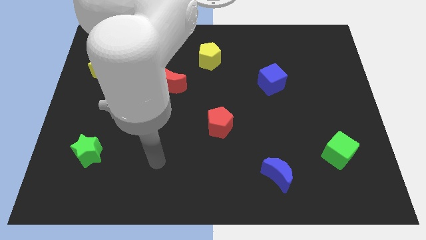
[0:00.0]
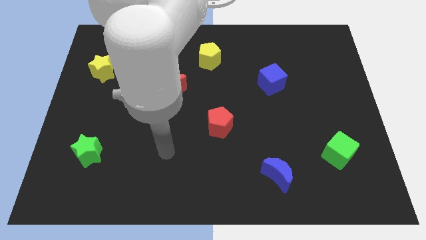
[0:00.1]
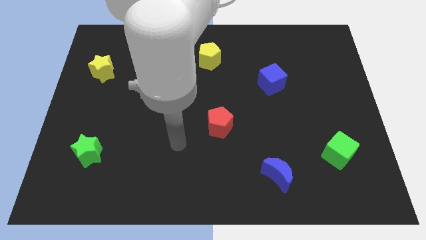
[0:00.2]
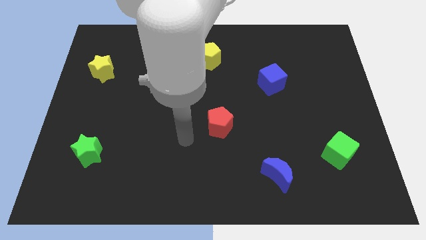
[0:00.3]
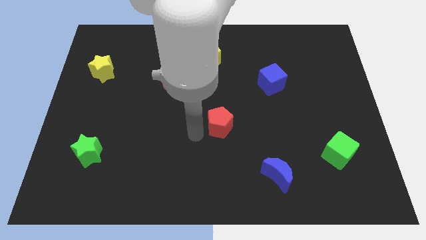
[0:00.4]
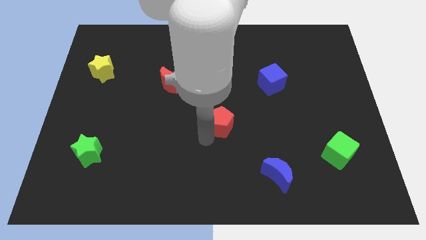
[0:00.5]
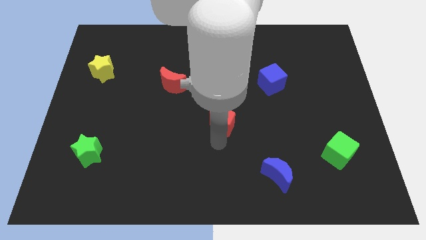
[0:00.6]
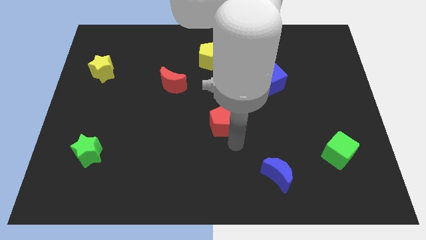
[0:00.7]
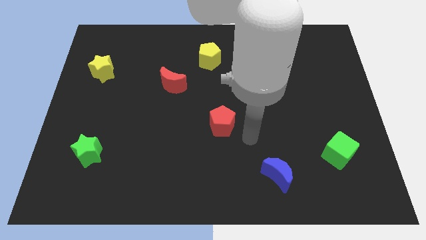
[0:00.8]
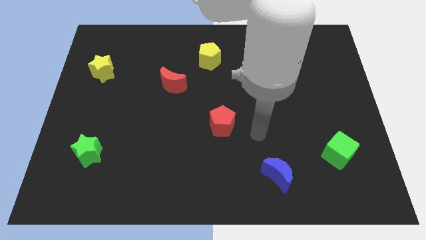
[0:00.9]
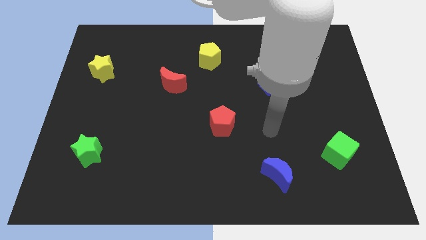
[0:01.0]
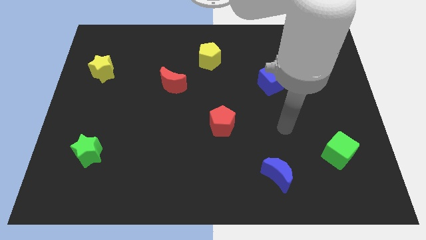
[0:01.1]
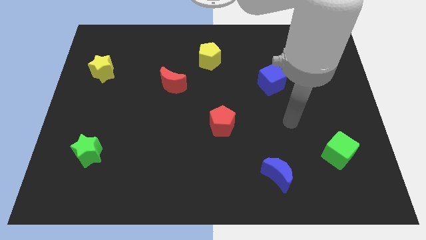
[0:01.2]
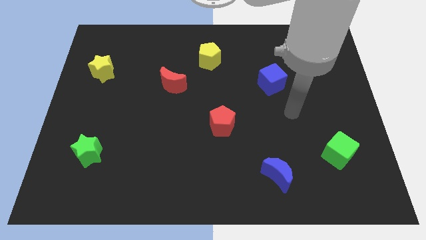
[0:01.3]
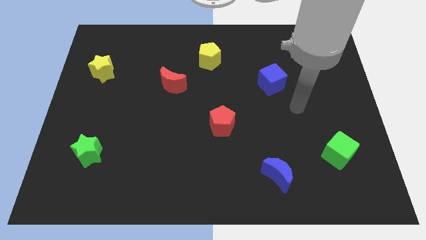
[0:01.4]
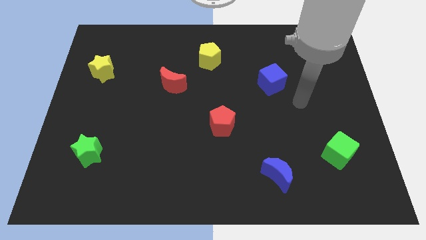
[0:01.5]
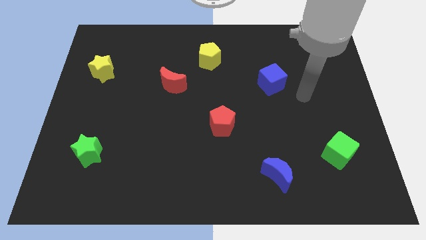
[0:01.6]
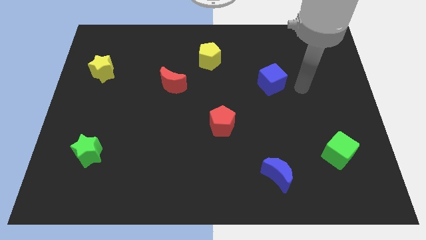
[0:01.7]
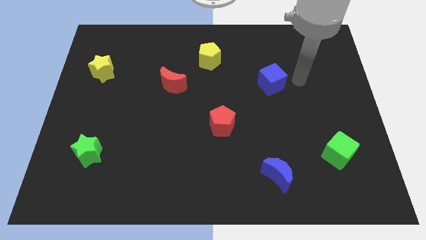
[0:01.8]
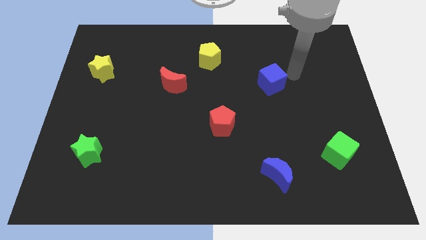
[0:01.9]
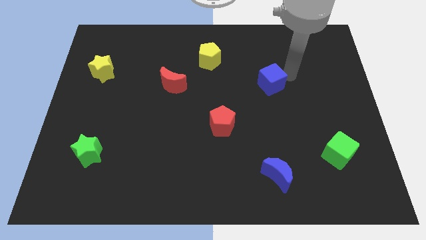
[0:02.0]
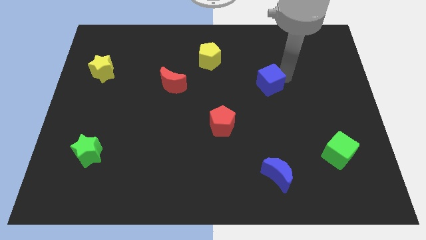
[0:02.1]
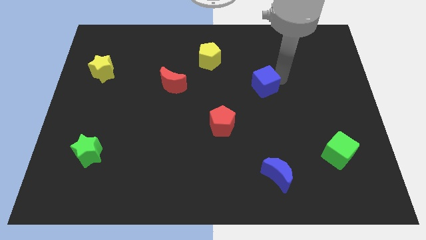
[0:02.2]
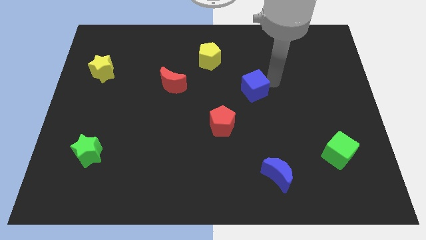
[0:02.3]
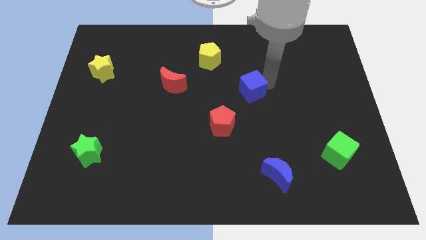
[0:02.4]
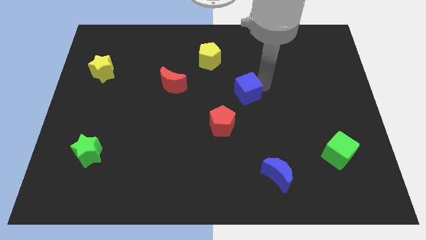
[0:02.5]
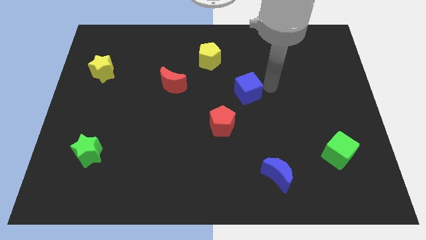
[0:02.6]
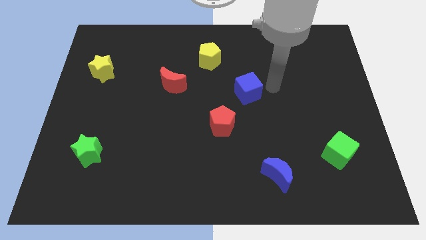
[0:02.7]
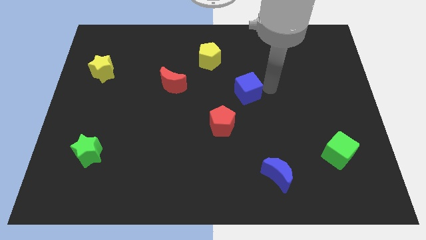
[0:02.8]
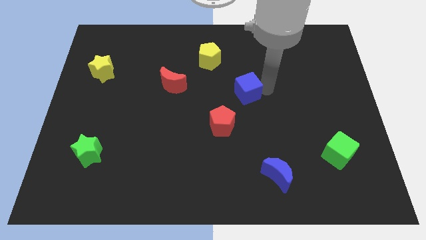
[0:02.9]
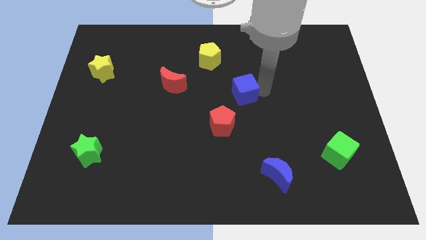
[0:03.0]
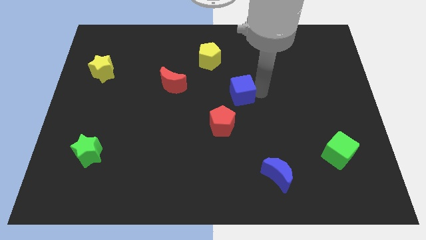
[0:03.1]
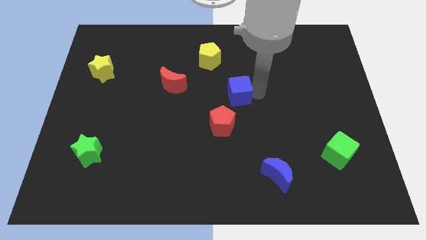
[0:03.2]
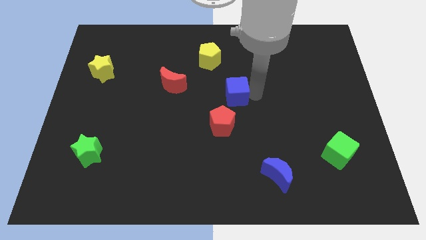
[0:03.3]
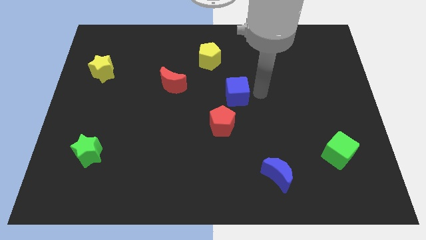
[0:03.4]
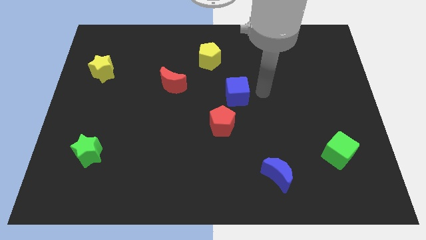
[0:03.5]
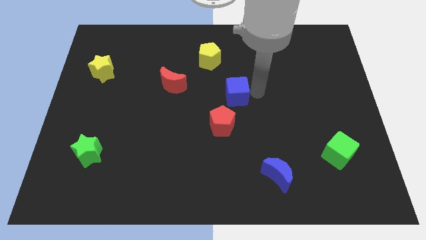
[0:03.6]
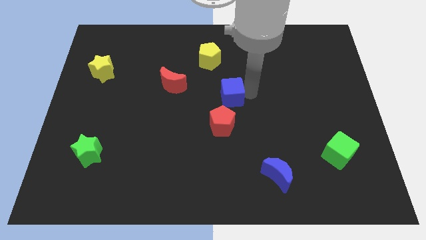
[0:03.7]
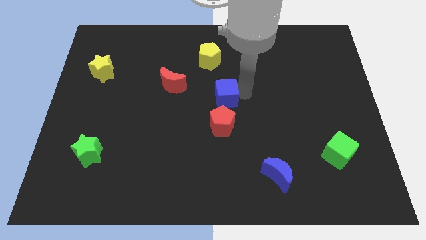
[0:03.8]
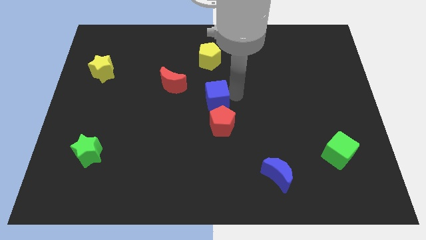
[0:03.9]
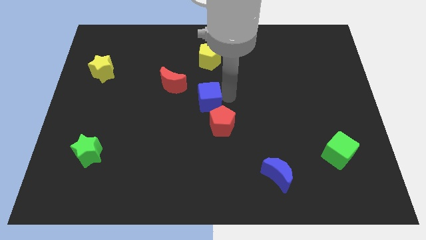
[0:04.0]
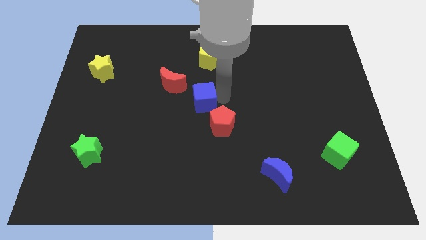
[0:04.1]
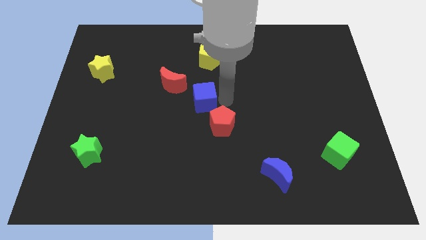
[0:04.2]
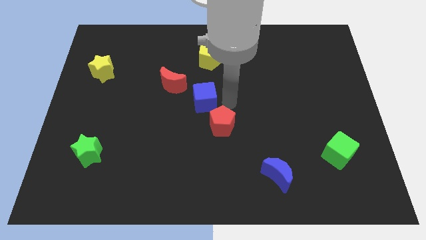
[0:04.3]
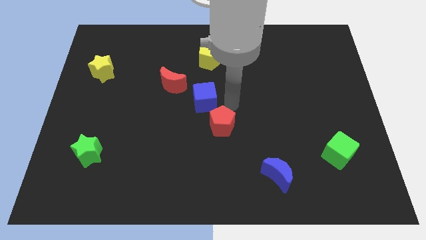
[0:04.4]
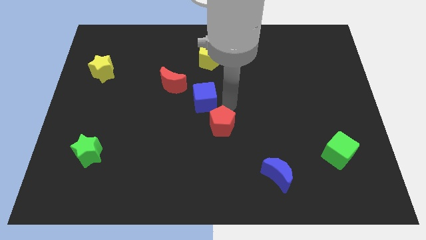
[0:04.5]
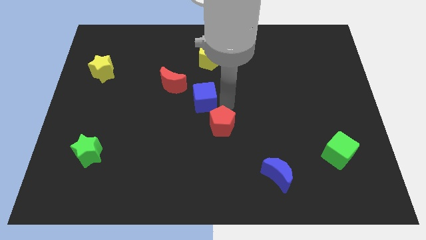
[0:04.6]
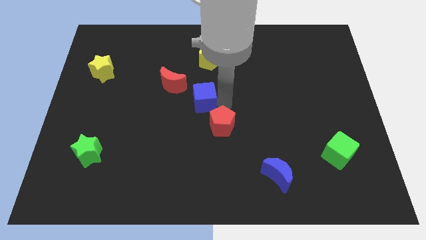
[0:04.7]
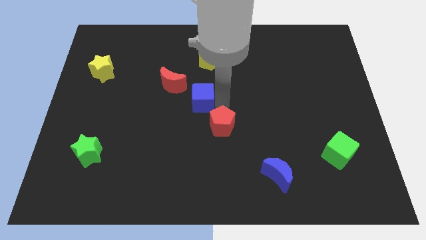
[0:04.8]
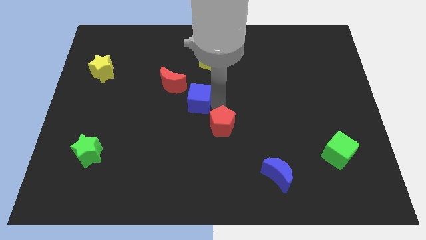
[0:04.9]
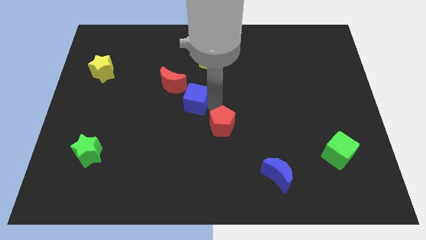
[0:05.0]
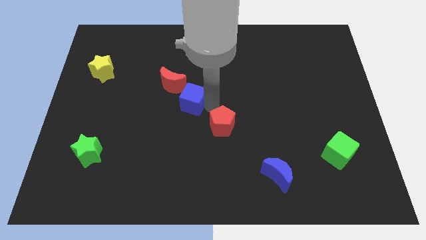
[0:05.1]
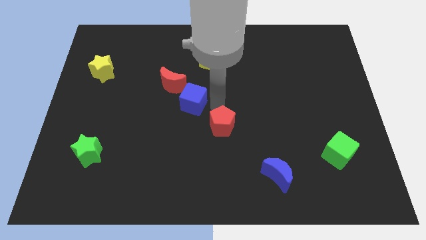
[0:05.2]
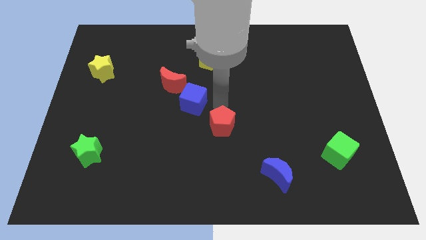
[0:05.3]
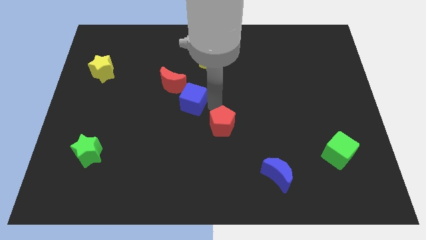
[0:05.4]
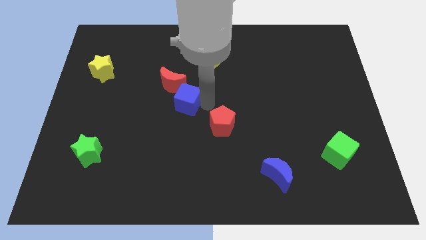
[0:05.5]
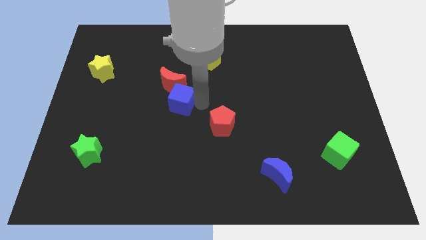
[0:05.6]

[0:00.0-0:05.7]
slide the blue cube to the left

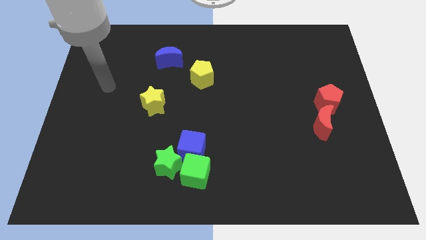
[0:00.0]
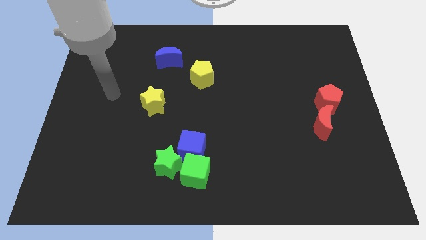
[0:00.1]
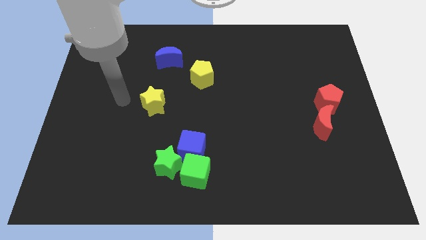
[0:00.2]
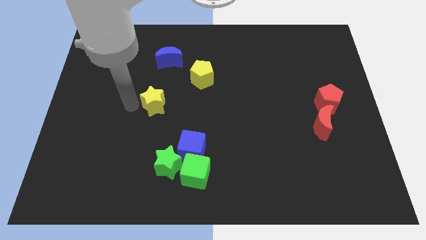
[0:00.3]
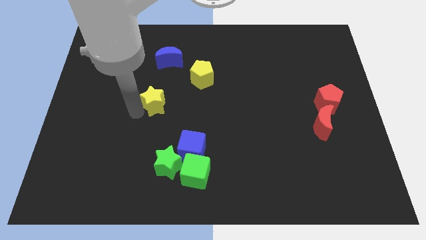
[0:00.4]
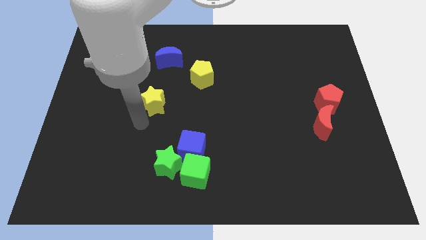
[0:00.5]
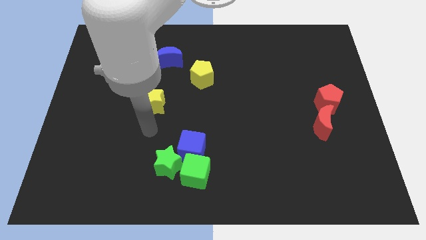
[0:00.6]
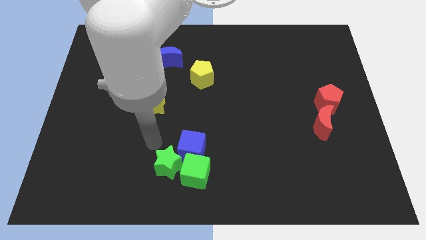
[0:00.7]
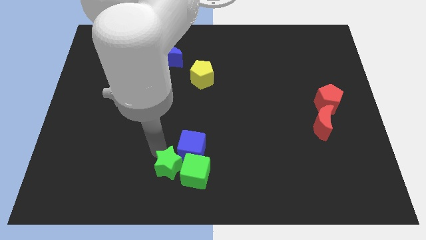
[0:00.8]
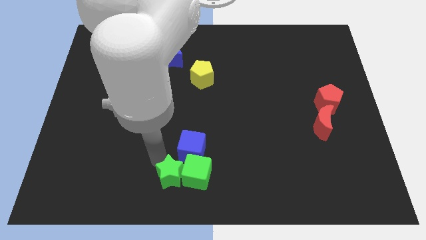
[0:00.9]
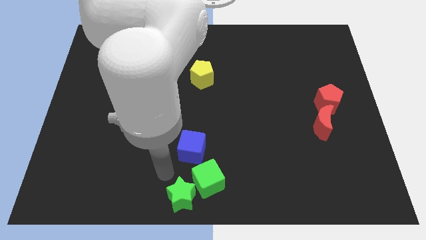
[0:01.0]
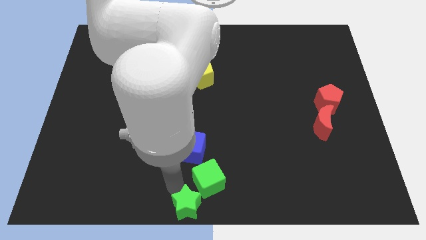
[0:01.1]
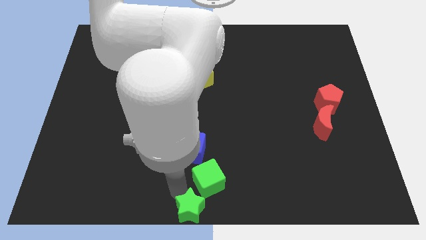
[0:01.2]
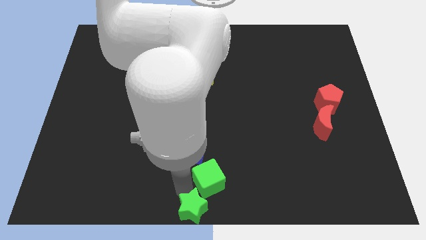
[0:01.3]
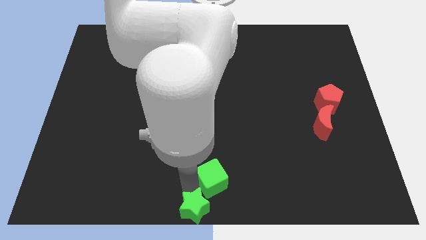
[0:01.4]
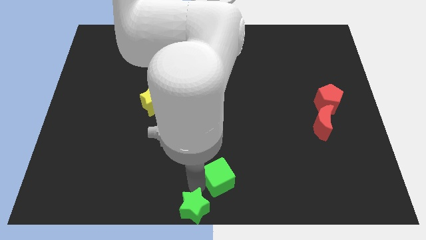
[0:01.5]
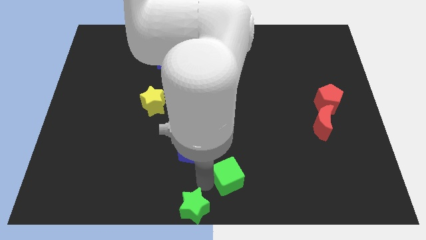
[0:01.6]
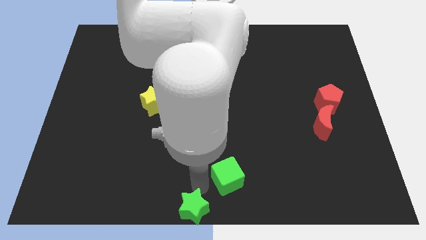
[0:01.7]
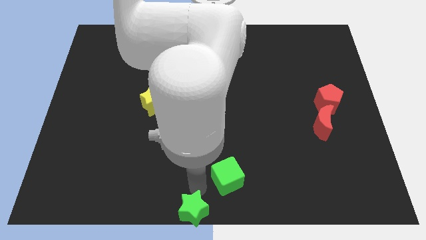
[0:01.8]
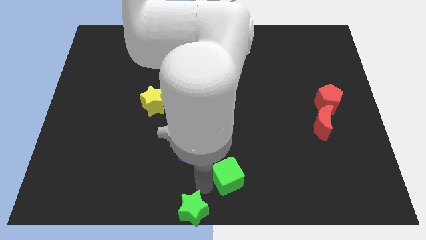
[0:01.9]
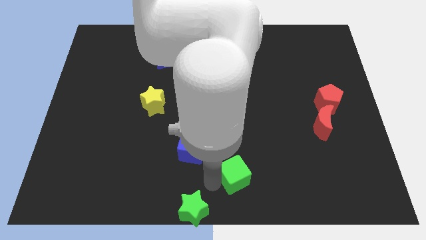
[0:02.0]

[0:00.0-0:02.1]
slide the green cube a little bit right
